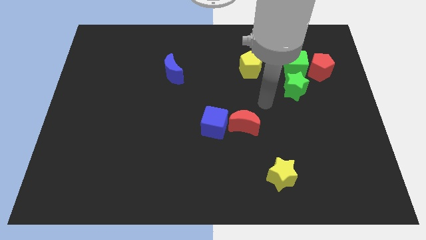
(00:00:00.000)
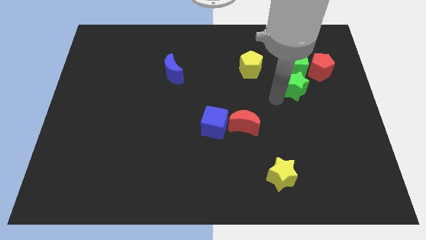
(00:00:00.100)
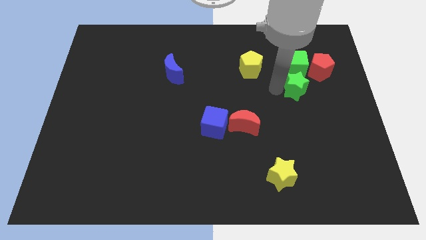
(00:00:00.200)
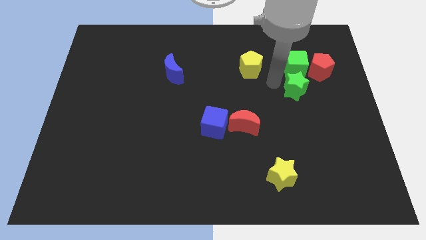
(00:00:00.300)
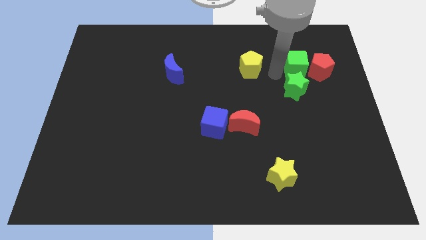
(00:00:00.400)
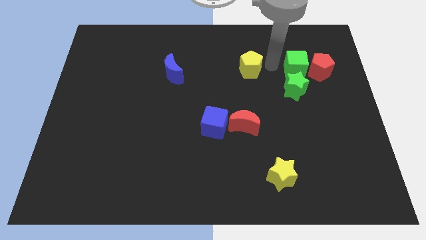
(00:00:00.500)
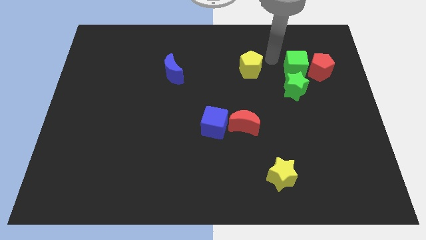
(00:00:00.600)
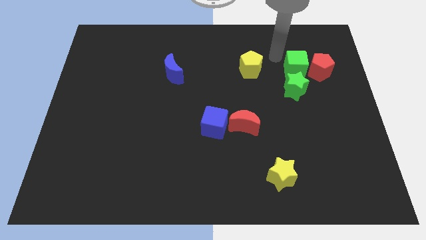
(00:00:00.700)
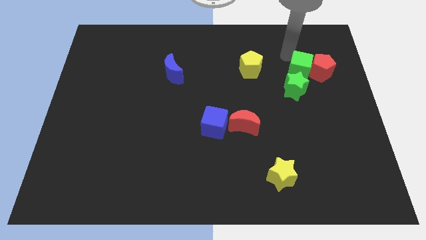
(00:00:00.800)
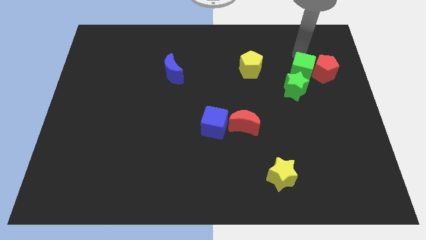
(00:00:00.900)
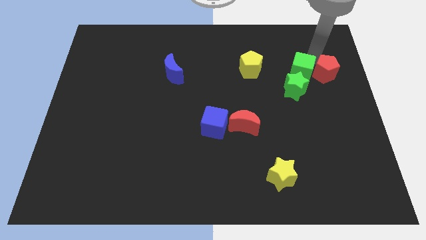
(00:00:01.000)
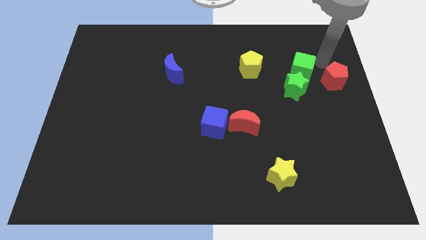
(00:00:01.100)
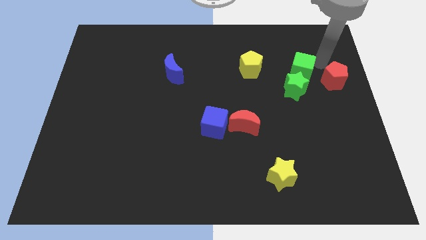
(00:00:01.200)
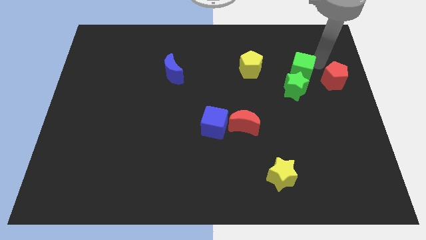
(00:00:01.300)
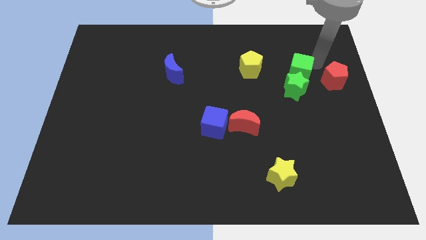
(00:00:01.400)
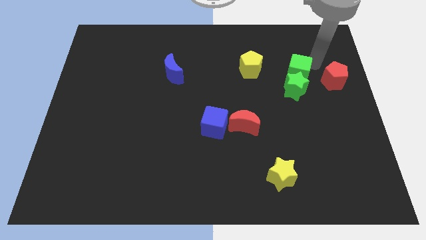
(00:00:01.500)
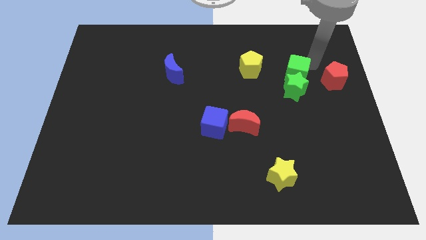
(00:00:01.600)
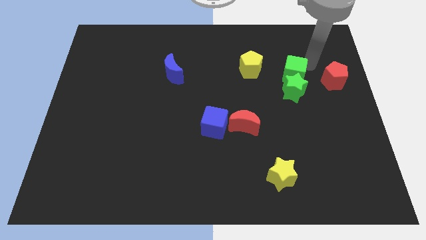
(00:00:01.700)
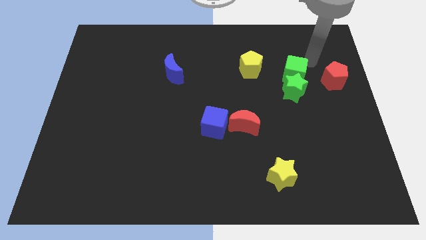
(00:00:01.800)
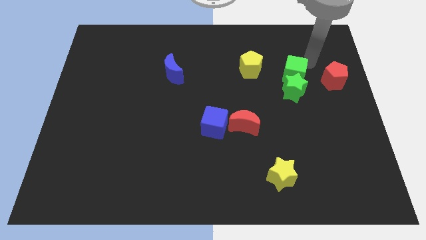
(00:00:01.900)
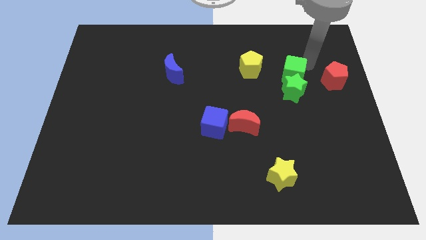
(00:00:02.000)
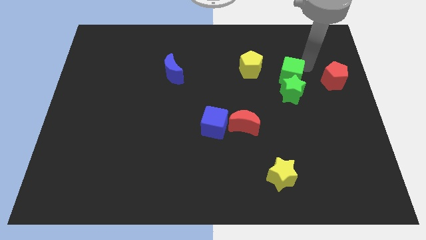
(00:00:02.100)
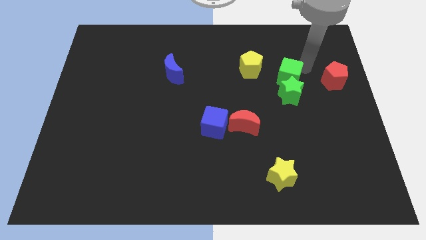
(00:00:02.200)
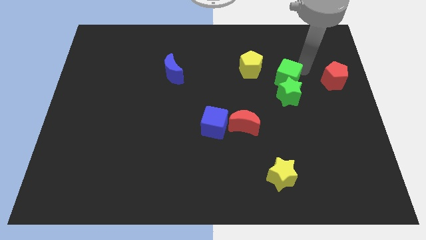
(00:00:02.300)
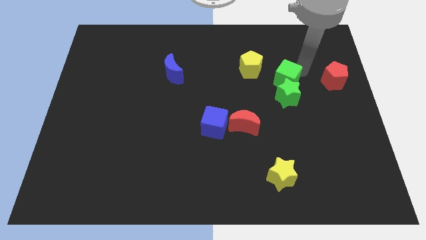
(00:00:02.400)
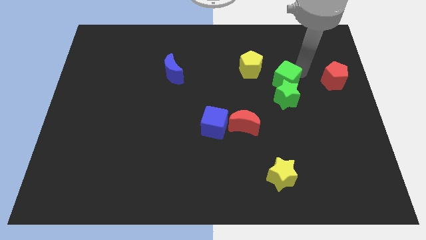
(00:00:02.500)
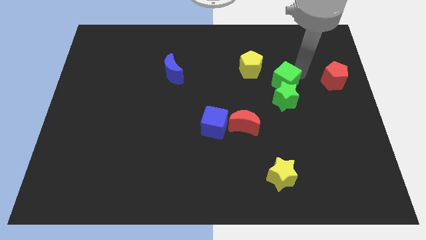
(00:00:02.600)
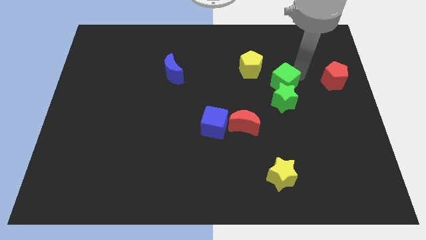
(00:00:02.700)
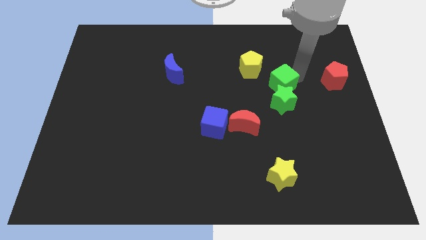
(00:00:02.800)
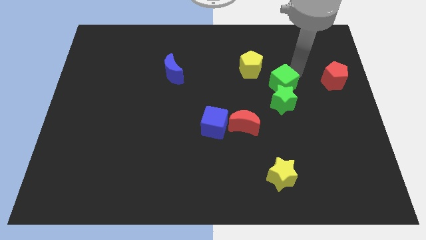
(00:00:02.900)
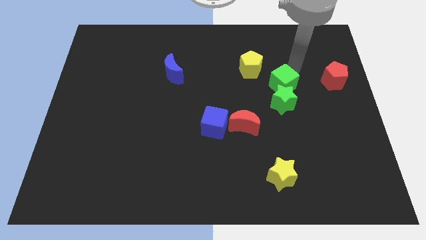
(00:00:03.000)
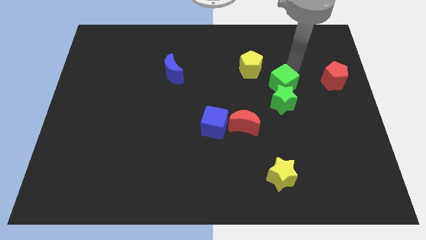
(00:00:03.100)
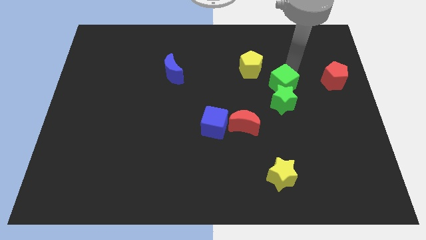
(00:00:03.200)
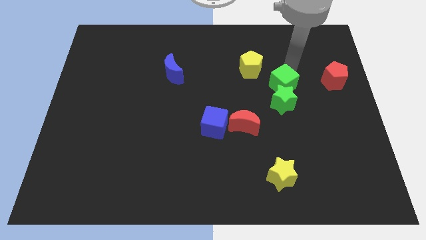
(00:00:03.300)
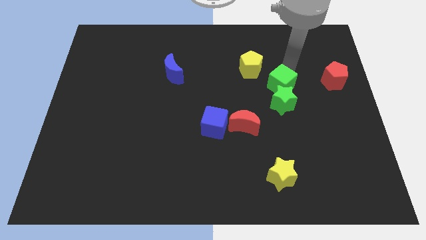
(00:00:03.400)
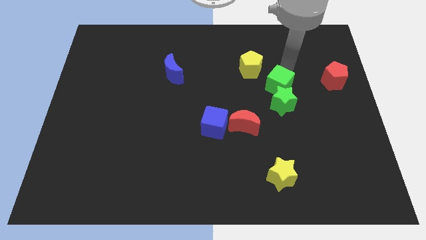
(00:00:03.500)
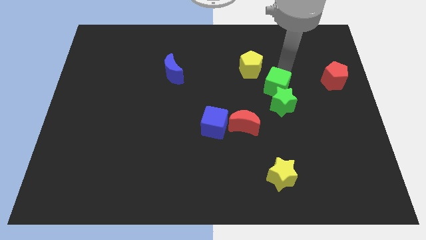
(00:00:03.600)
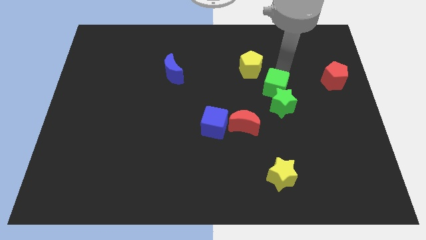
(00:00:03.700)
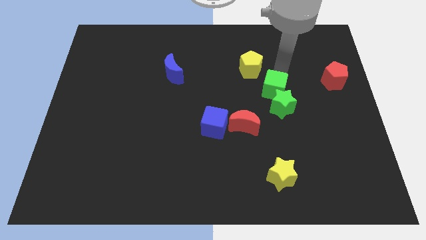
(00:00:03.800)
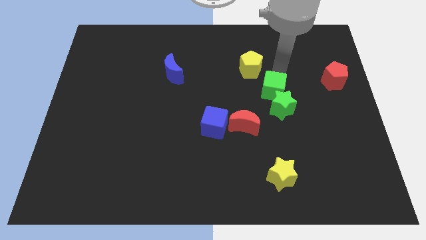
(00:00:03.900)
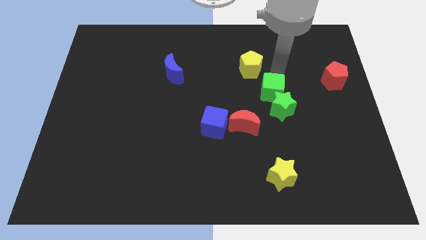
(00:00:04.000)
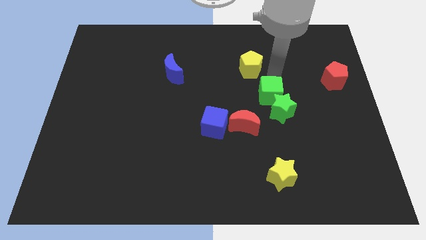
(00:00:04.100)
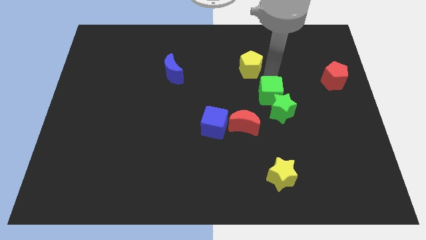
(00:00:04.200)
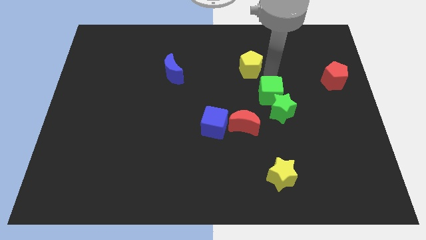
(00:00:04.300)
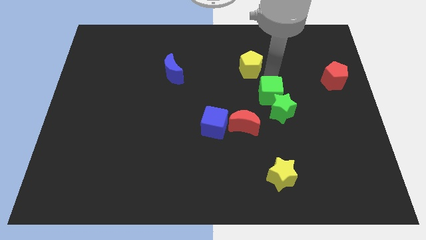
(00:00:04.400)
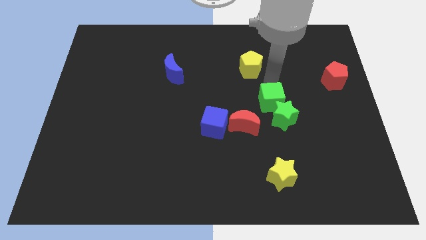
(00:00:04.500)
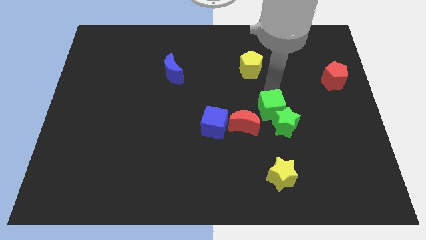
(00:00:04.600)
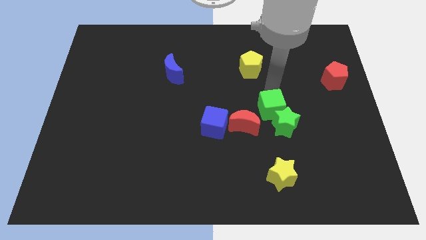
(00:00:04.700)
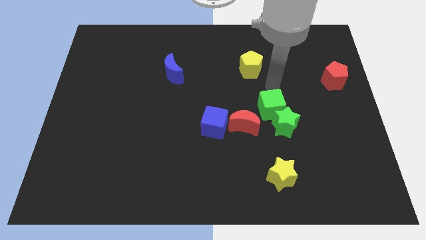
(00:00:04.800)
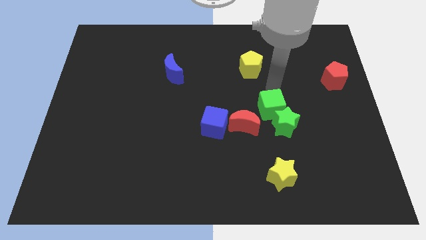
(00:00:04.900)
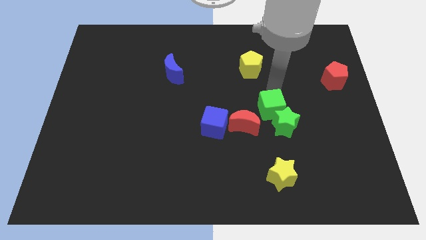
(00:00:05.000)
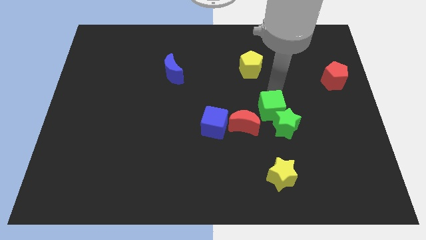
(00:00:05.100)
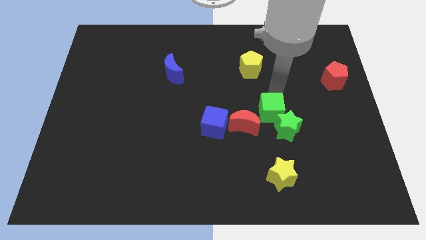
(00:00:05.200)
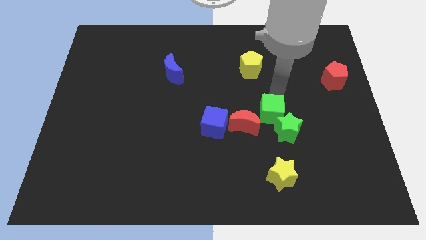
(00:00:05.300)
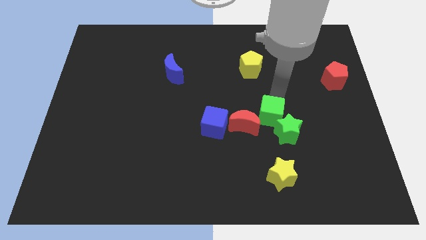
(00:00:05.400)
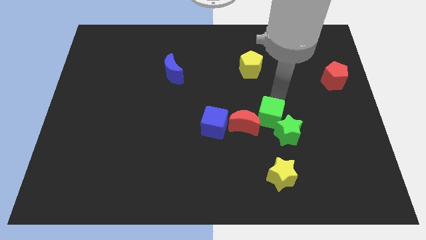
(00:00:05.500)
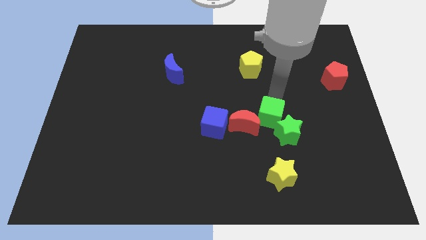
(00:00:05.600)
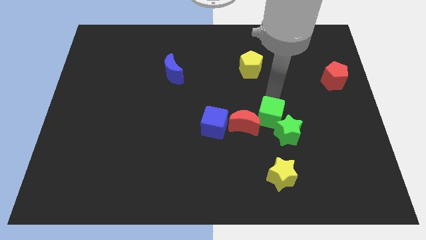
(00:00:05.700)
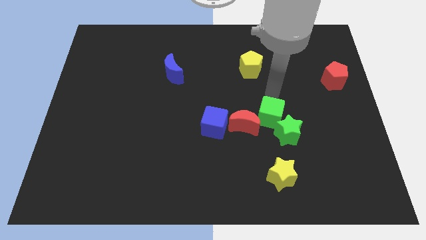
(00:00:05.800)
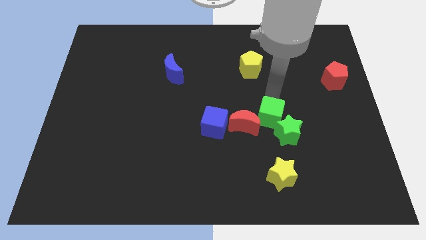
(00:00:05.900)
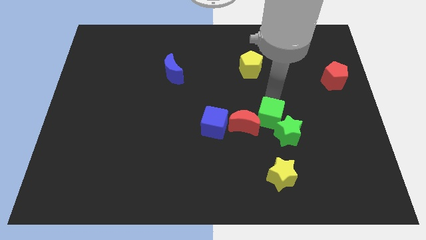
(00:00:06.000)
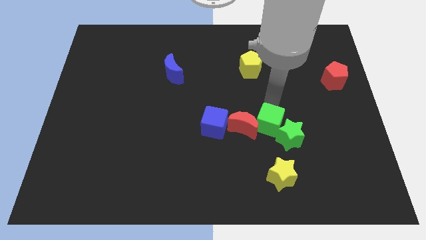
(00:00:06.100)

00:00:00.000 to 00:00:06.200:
slide the green cube to the bottom right of the red moon

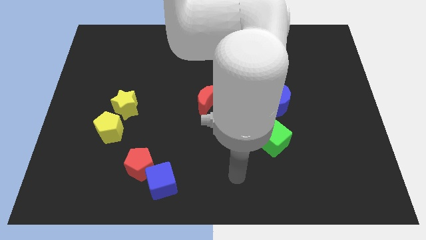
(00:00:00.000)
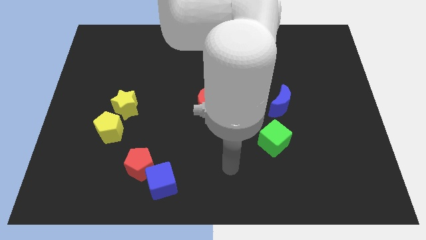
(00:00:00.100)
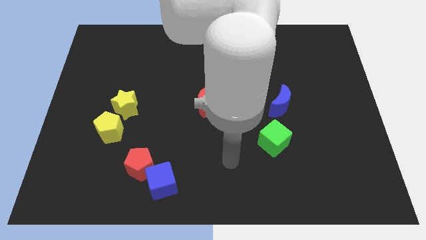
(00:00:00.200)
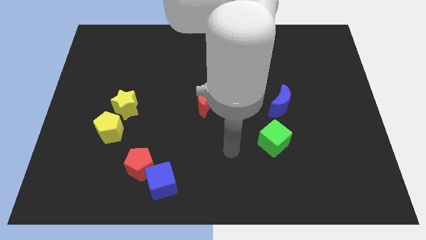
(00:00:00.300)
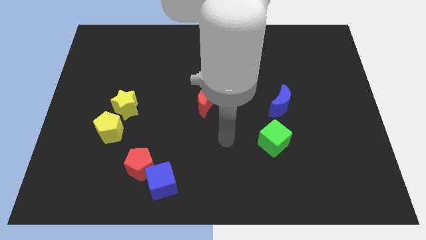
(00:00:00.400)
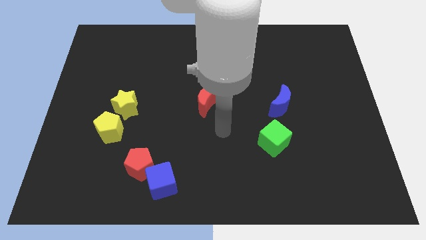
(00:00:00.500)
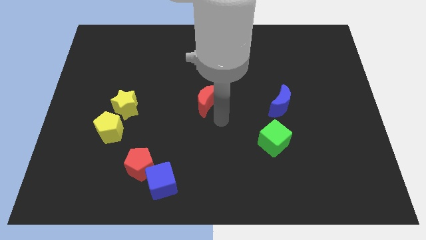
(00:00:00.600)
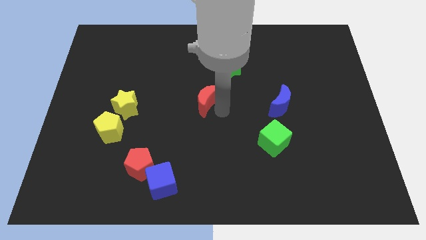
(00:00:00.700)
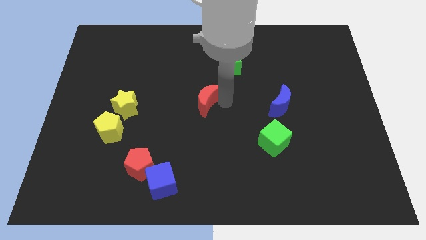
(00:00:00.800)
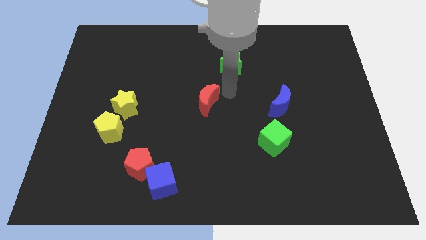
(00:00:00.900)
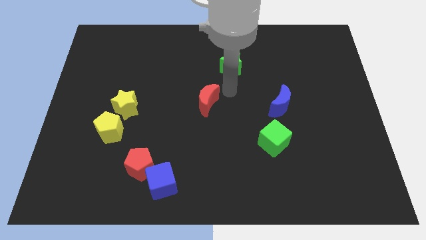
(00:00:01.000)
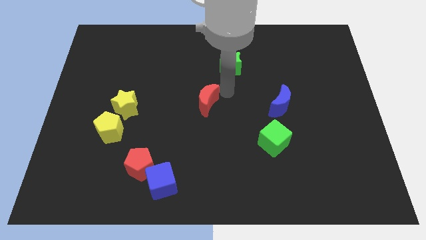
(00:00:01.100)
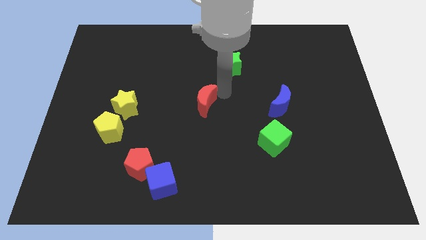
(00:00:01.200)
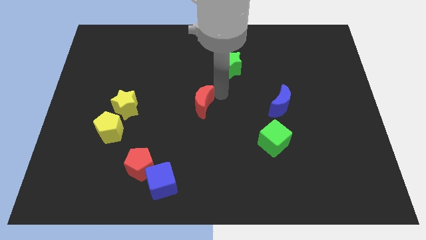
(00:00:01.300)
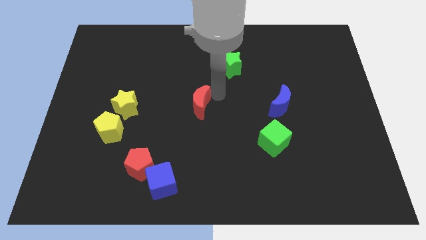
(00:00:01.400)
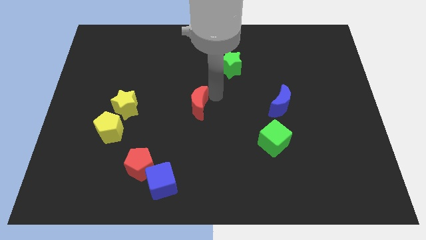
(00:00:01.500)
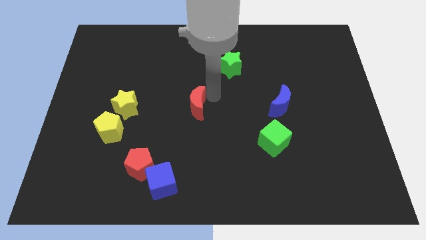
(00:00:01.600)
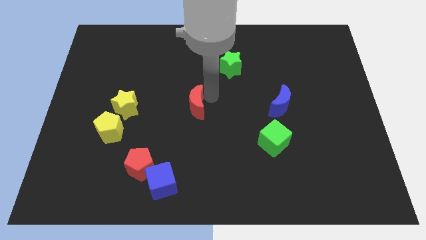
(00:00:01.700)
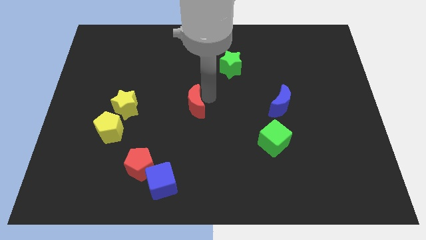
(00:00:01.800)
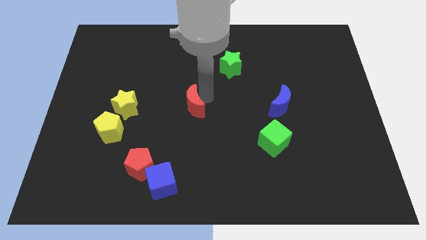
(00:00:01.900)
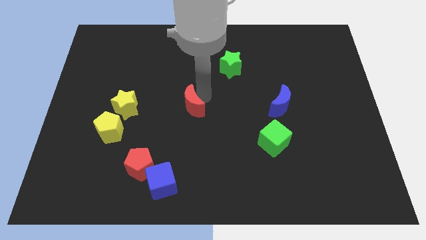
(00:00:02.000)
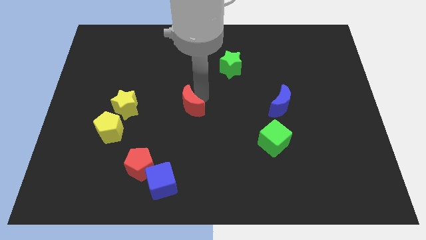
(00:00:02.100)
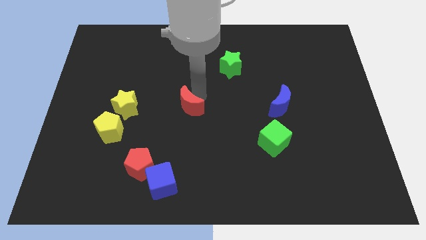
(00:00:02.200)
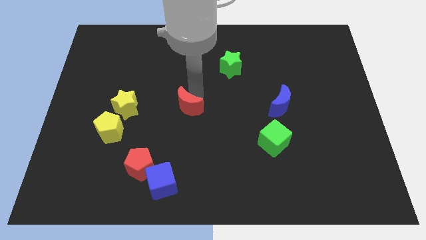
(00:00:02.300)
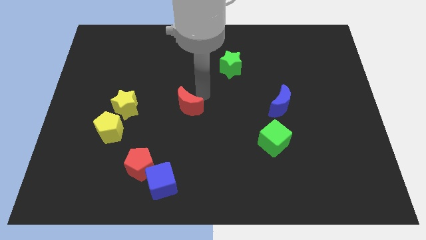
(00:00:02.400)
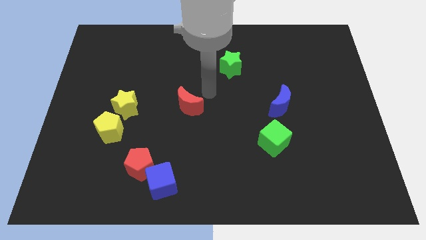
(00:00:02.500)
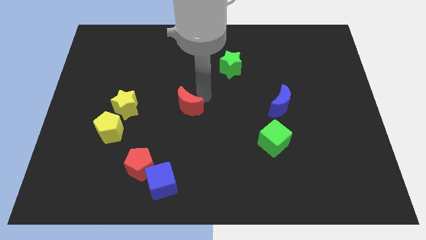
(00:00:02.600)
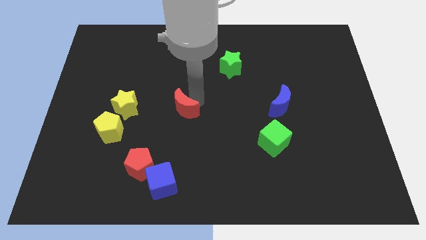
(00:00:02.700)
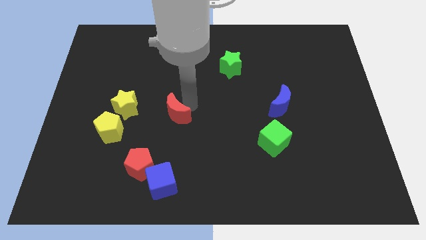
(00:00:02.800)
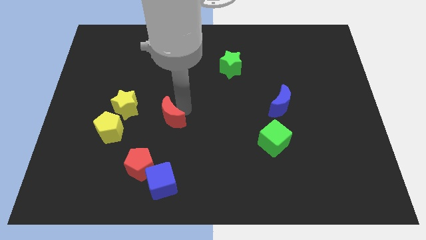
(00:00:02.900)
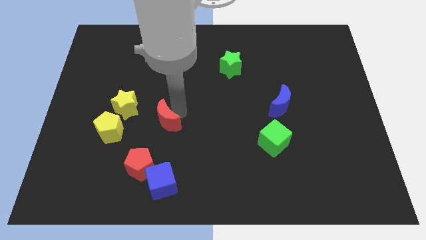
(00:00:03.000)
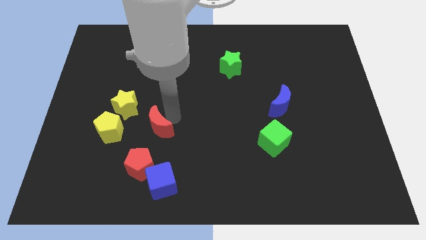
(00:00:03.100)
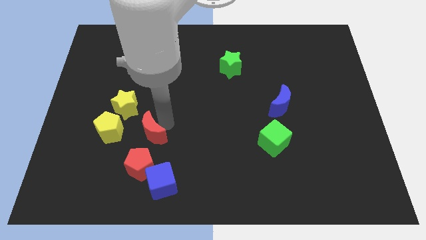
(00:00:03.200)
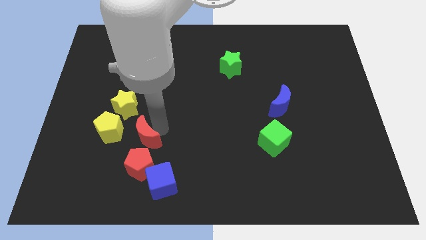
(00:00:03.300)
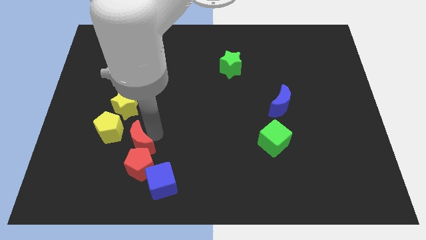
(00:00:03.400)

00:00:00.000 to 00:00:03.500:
put the red moon below the yellow star
